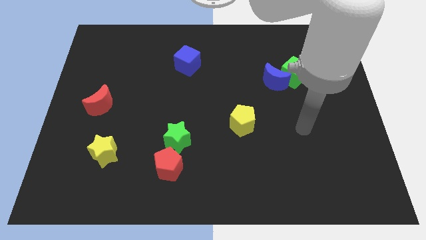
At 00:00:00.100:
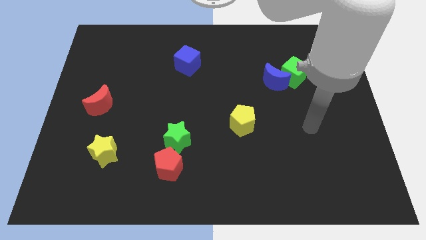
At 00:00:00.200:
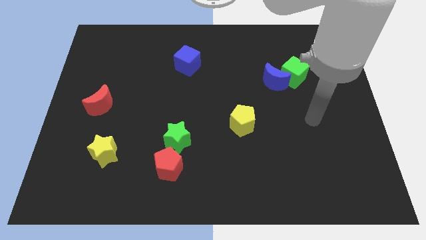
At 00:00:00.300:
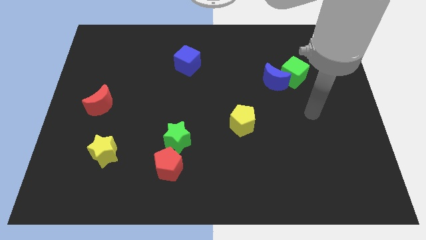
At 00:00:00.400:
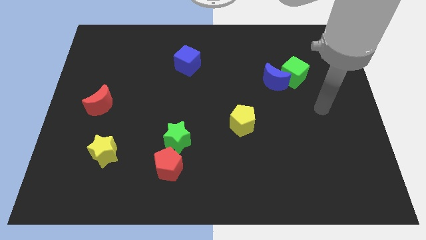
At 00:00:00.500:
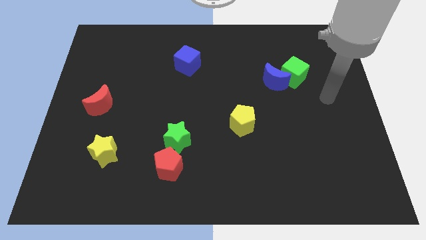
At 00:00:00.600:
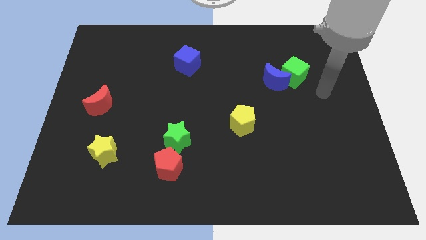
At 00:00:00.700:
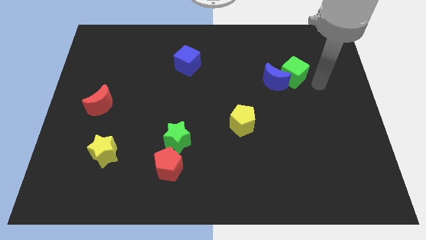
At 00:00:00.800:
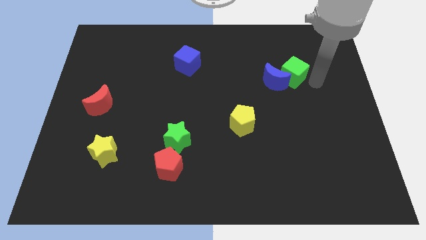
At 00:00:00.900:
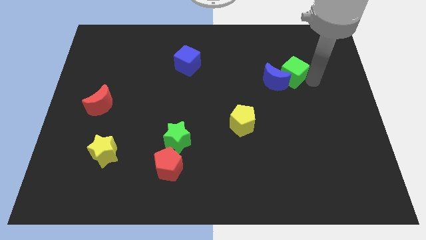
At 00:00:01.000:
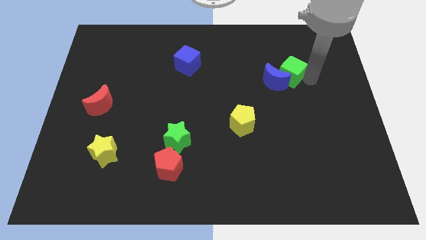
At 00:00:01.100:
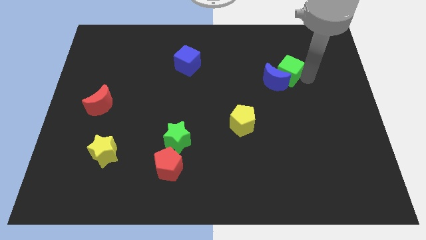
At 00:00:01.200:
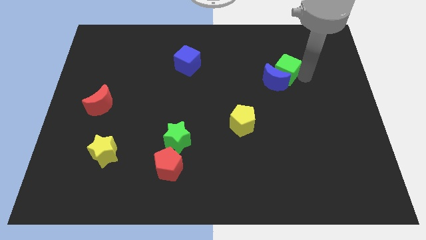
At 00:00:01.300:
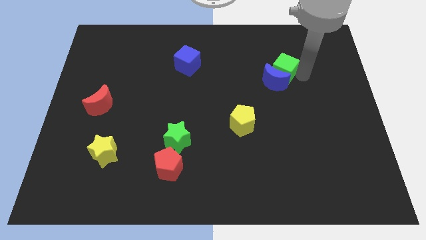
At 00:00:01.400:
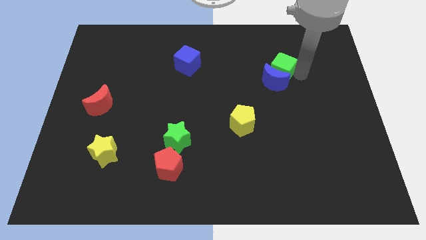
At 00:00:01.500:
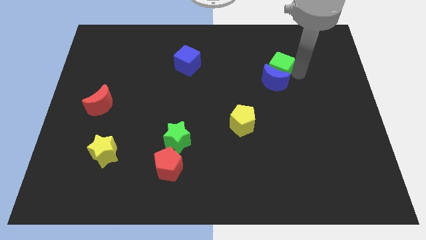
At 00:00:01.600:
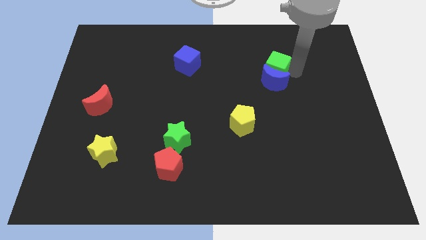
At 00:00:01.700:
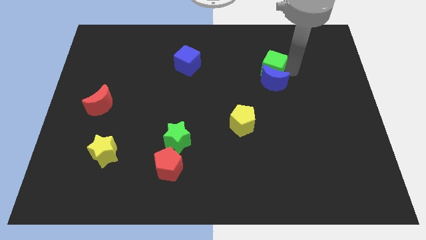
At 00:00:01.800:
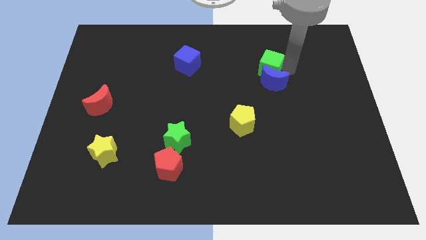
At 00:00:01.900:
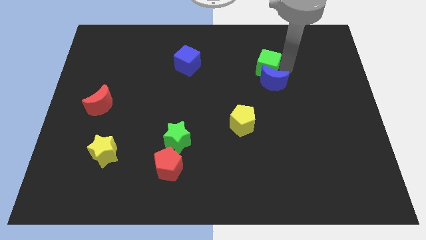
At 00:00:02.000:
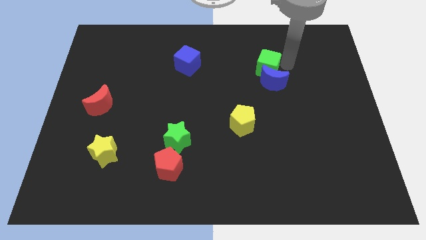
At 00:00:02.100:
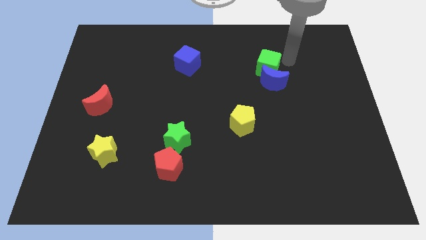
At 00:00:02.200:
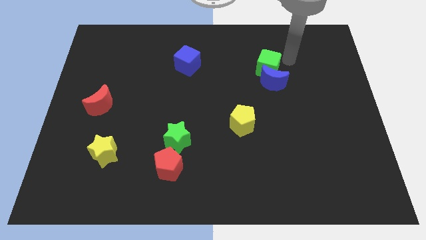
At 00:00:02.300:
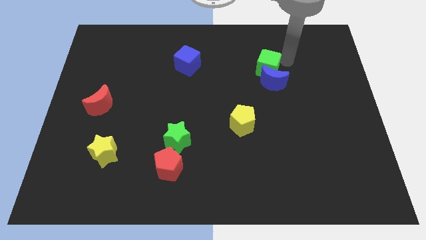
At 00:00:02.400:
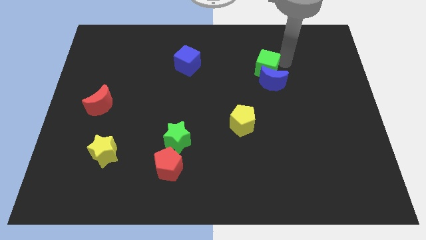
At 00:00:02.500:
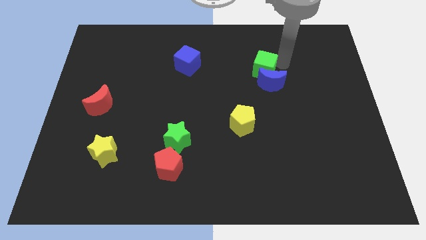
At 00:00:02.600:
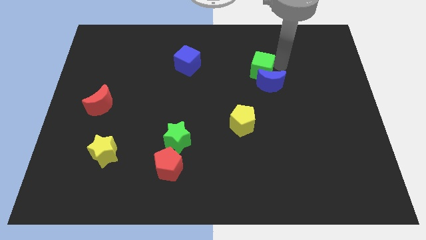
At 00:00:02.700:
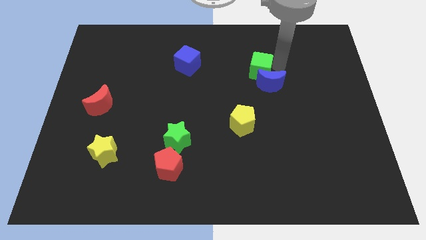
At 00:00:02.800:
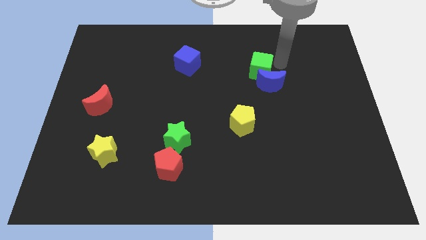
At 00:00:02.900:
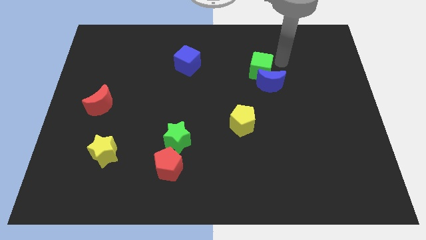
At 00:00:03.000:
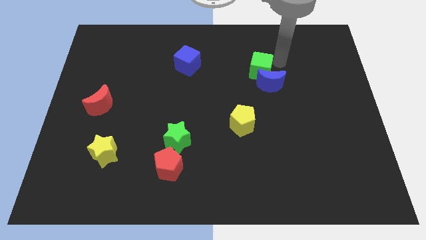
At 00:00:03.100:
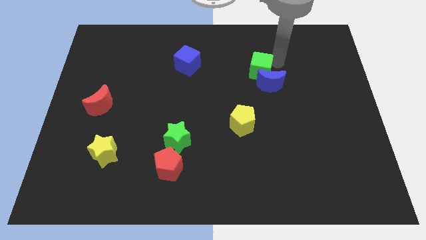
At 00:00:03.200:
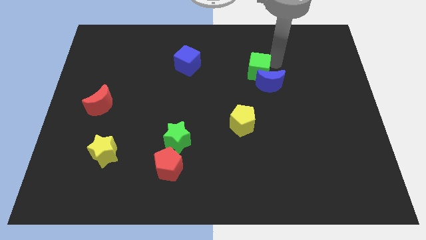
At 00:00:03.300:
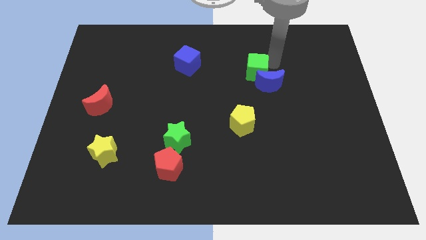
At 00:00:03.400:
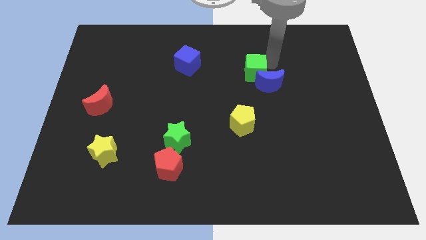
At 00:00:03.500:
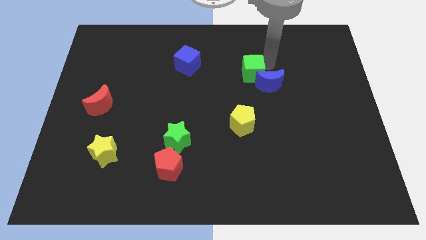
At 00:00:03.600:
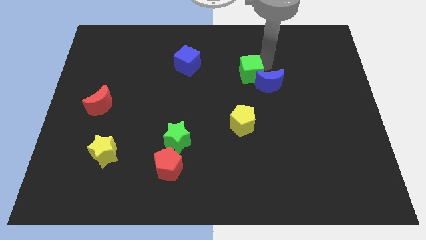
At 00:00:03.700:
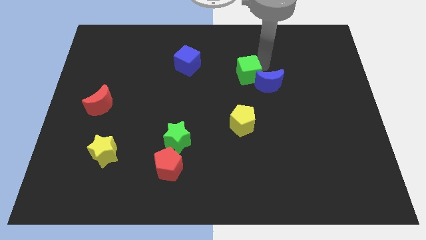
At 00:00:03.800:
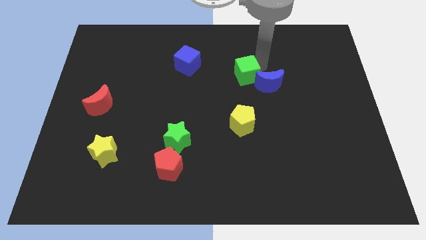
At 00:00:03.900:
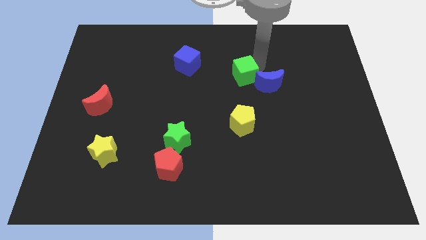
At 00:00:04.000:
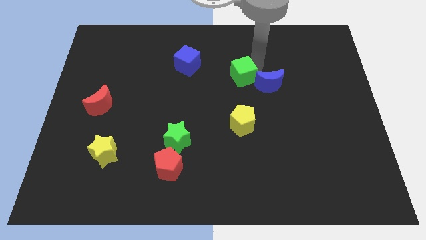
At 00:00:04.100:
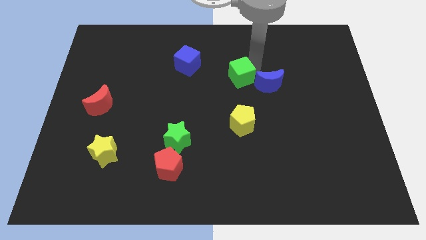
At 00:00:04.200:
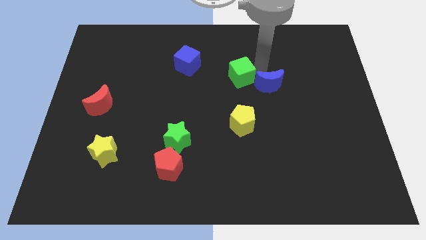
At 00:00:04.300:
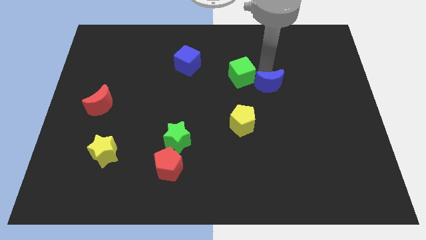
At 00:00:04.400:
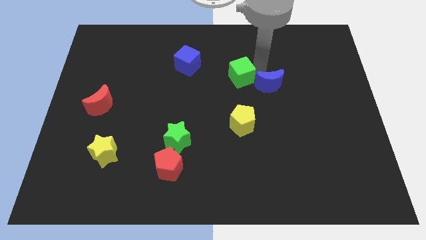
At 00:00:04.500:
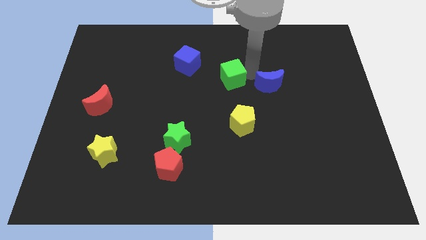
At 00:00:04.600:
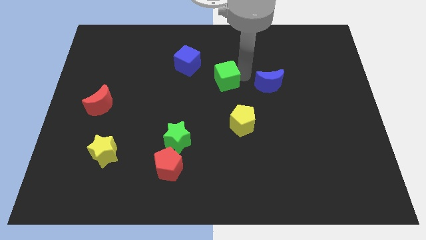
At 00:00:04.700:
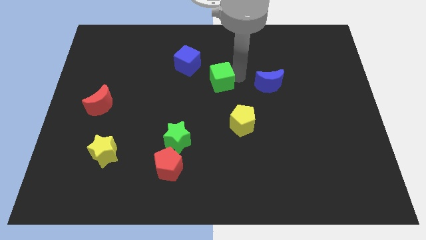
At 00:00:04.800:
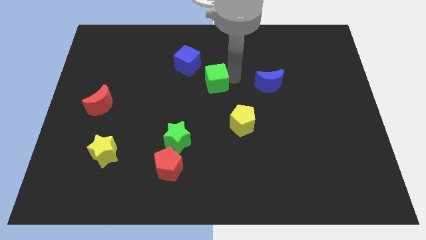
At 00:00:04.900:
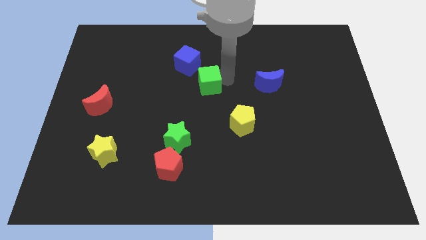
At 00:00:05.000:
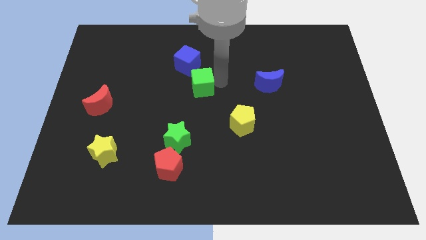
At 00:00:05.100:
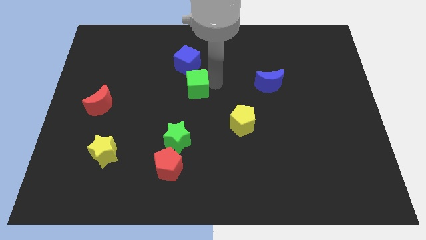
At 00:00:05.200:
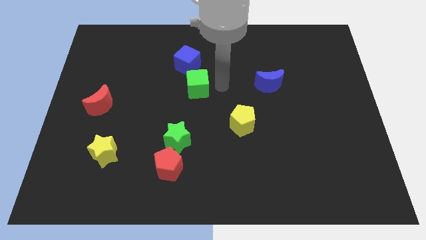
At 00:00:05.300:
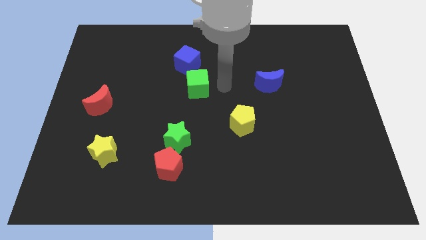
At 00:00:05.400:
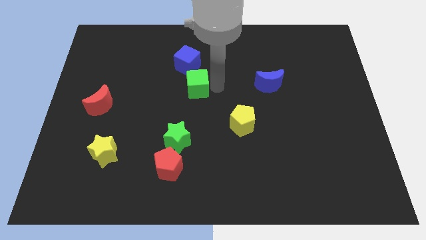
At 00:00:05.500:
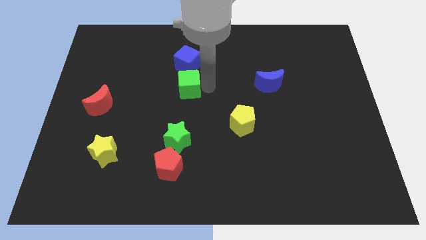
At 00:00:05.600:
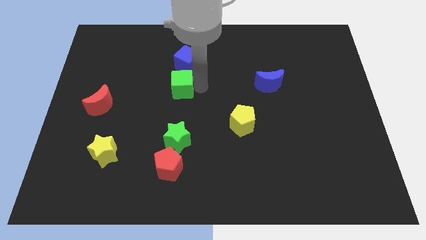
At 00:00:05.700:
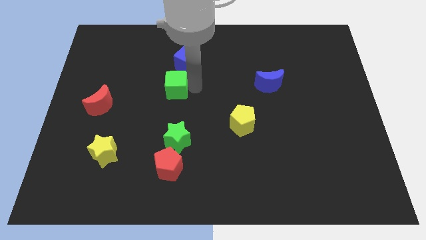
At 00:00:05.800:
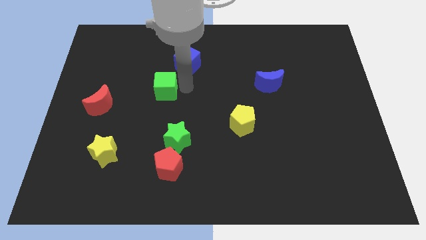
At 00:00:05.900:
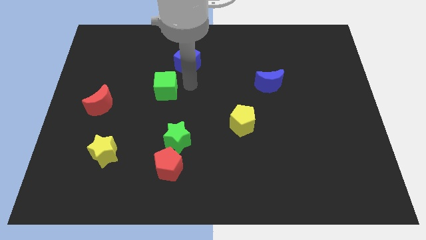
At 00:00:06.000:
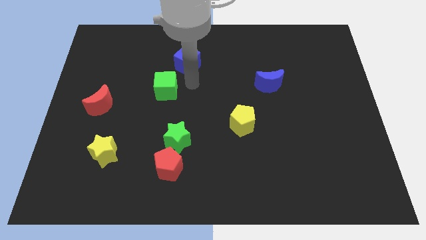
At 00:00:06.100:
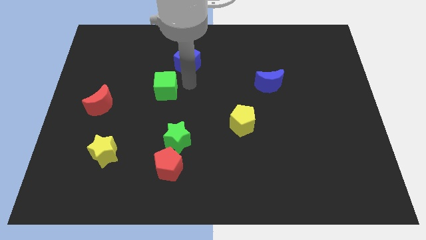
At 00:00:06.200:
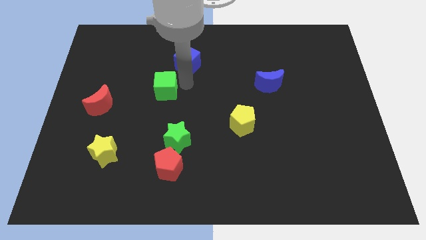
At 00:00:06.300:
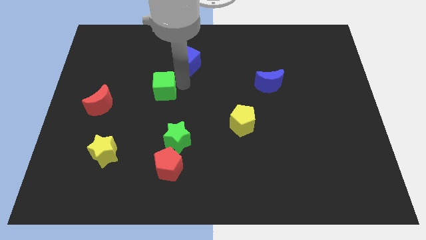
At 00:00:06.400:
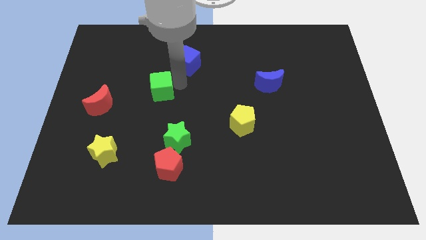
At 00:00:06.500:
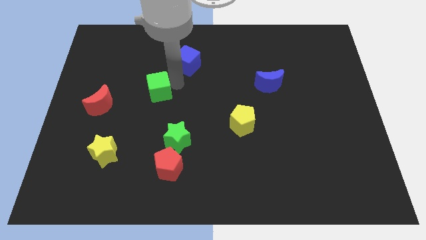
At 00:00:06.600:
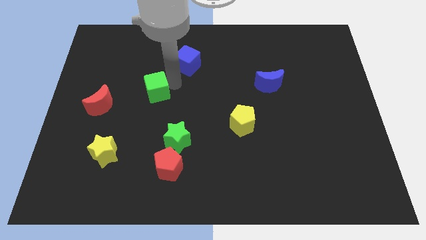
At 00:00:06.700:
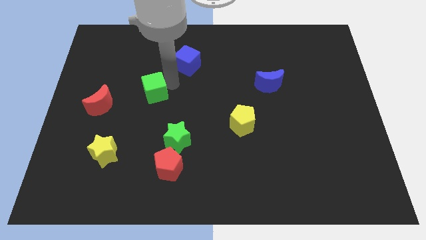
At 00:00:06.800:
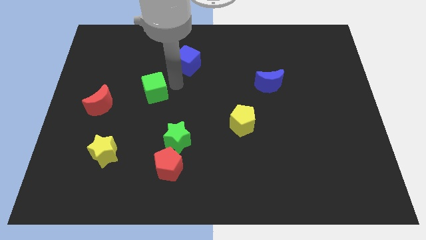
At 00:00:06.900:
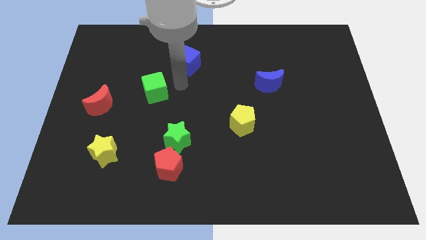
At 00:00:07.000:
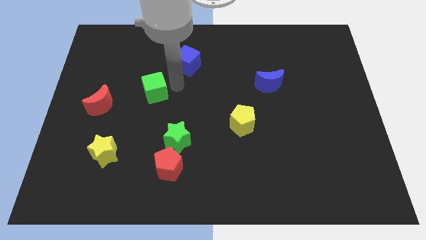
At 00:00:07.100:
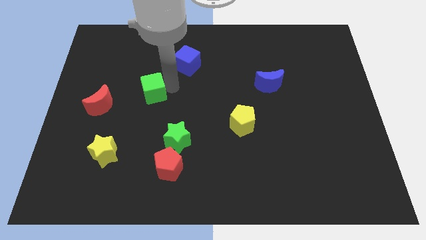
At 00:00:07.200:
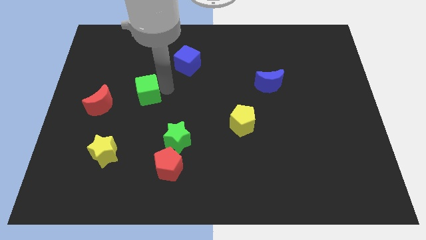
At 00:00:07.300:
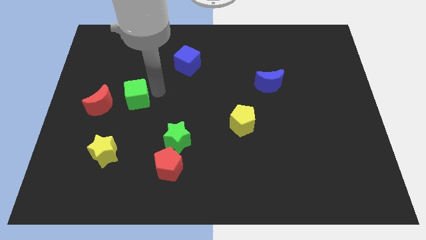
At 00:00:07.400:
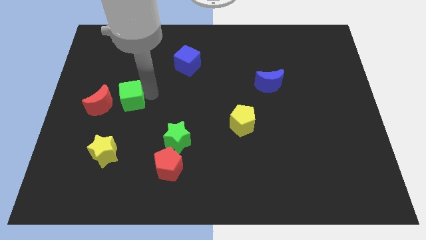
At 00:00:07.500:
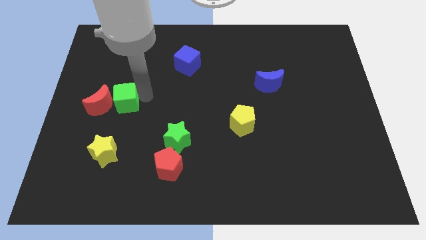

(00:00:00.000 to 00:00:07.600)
move the green cube close to the red moon
